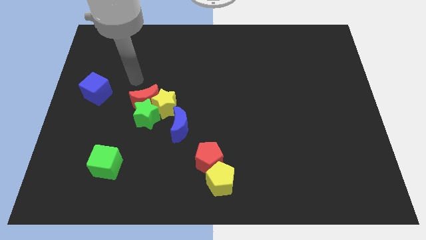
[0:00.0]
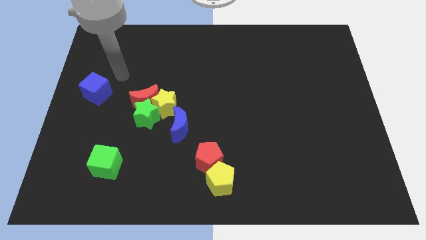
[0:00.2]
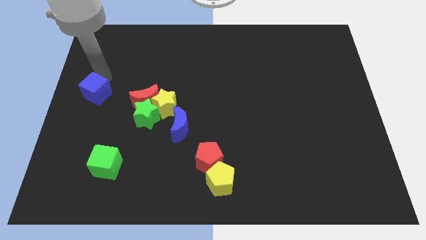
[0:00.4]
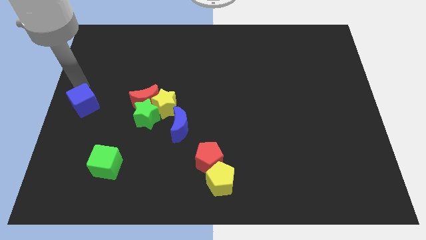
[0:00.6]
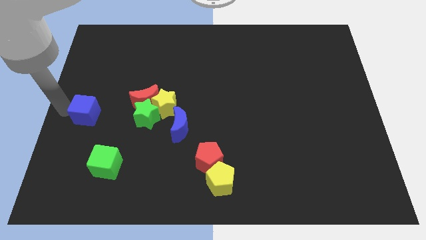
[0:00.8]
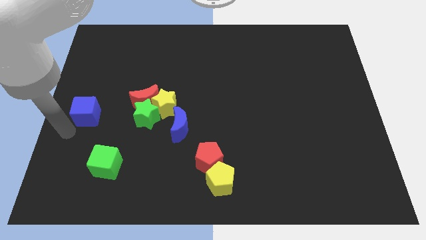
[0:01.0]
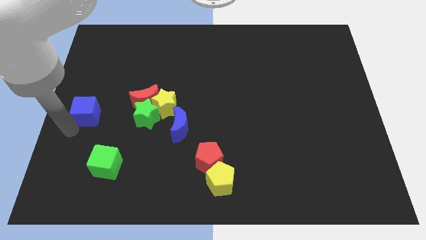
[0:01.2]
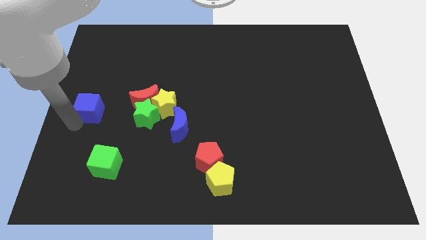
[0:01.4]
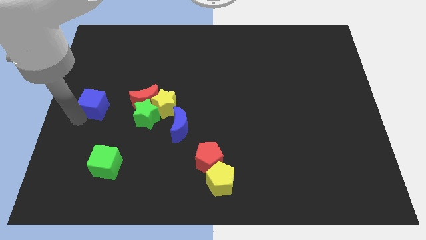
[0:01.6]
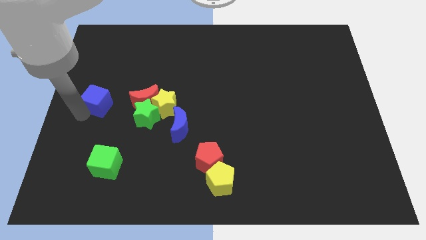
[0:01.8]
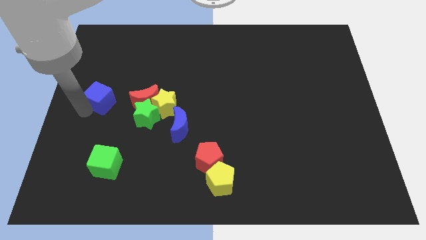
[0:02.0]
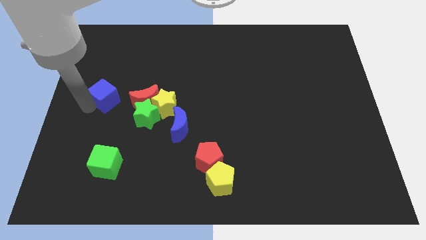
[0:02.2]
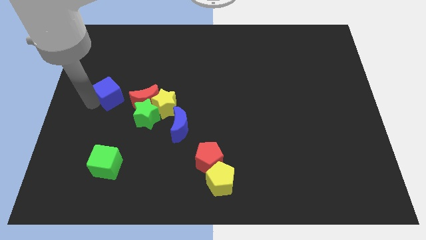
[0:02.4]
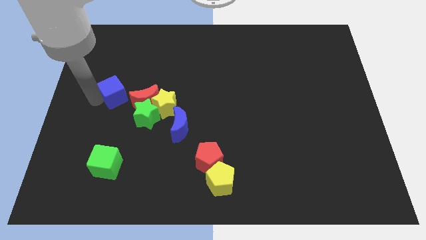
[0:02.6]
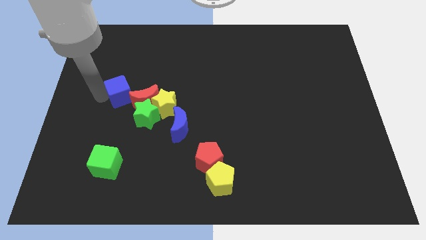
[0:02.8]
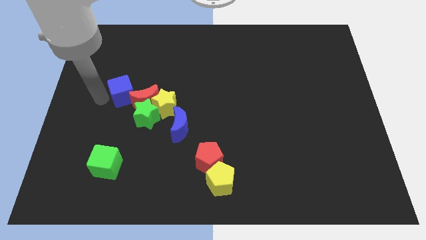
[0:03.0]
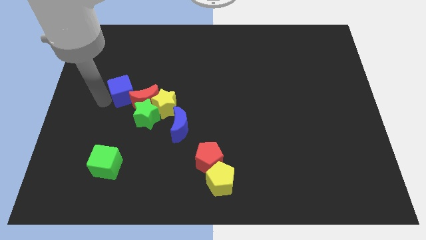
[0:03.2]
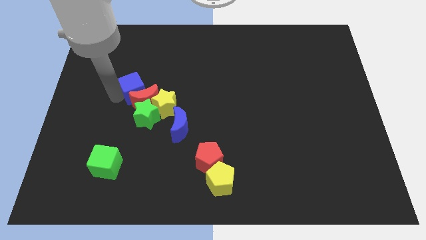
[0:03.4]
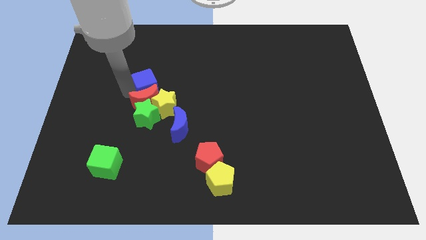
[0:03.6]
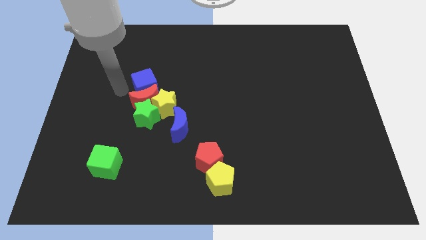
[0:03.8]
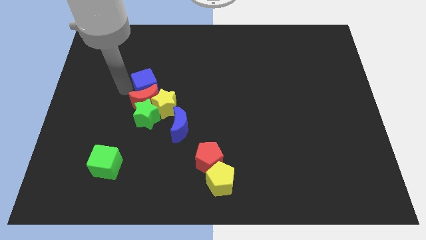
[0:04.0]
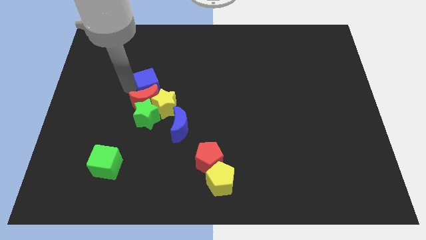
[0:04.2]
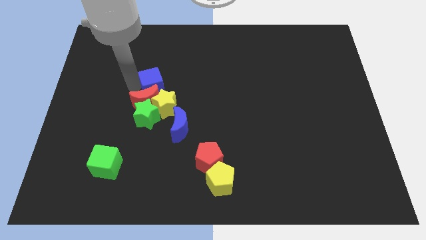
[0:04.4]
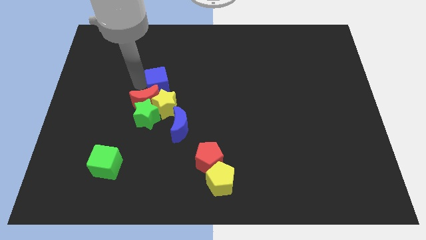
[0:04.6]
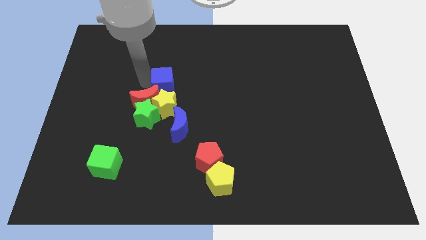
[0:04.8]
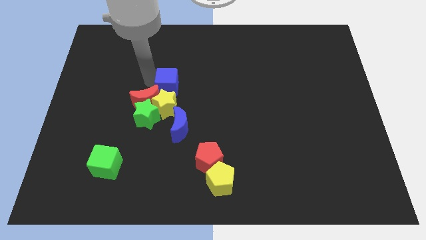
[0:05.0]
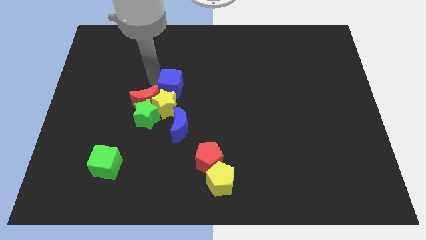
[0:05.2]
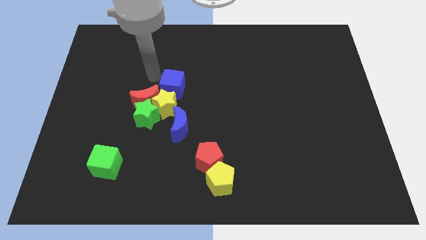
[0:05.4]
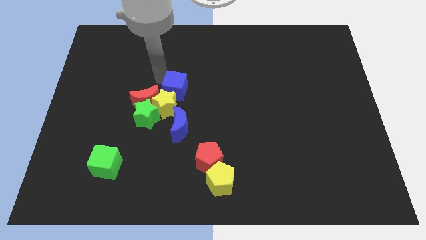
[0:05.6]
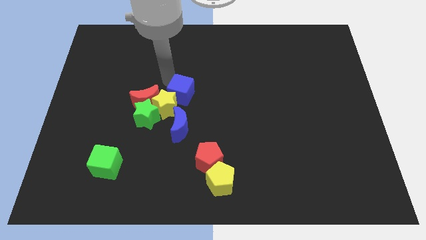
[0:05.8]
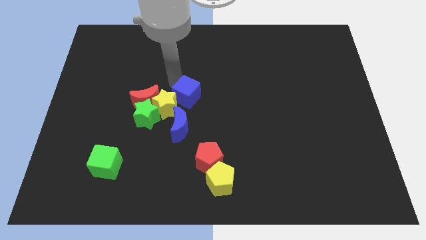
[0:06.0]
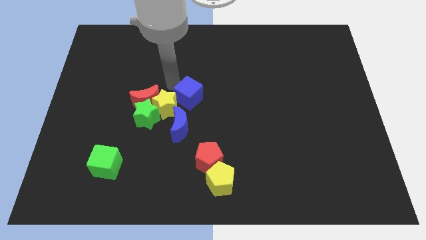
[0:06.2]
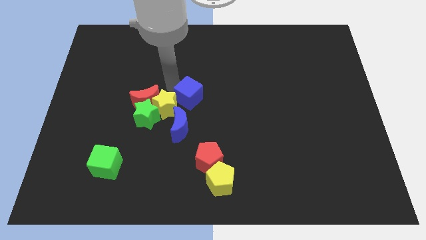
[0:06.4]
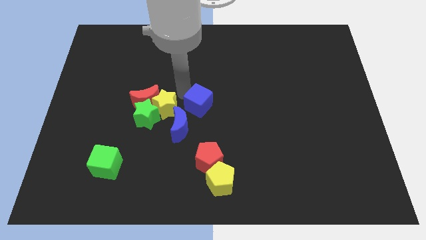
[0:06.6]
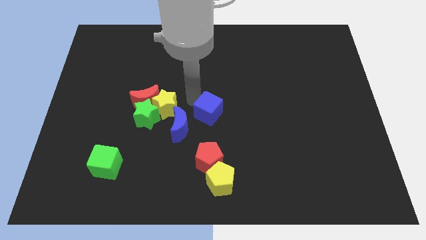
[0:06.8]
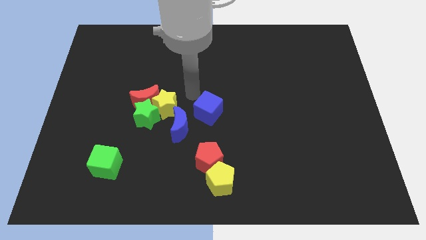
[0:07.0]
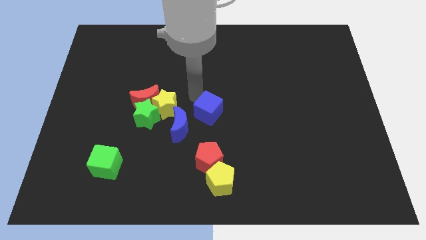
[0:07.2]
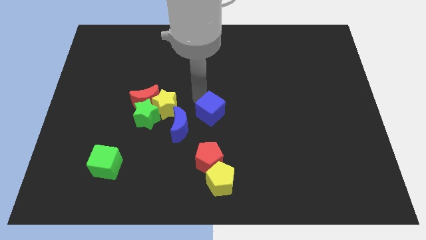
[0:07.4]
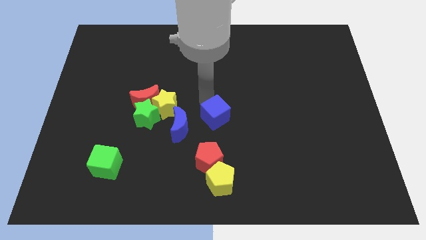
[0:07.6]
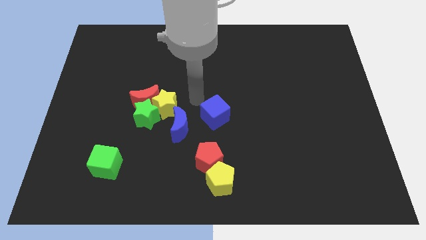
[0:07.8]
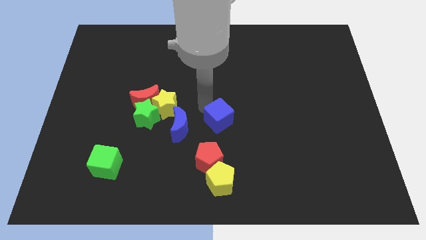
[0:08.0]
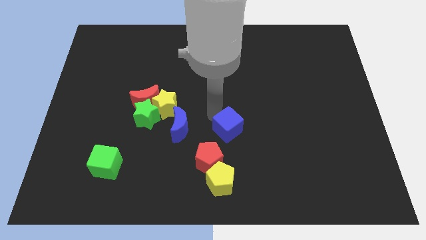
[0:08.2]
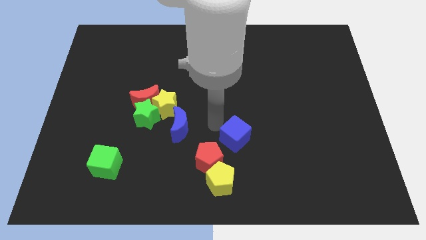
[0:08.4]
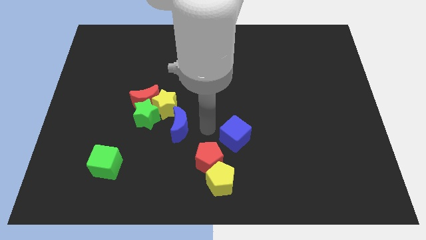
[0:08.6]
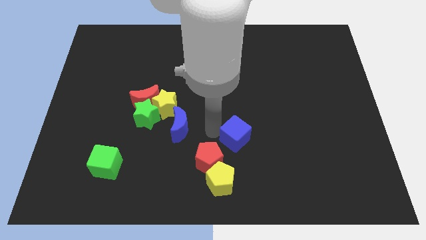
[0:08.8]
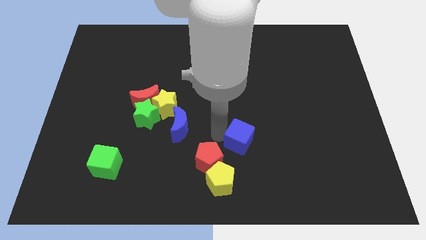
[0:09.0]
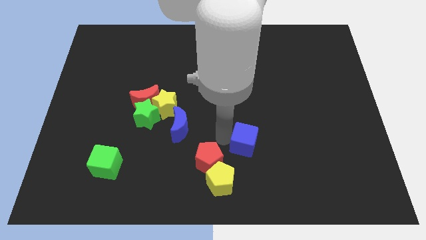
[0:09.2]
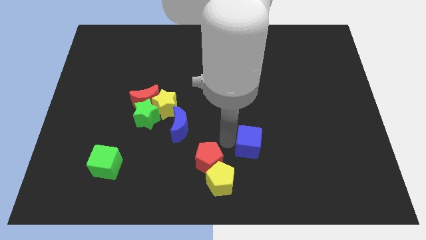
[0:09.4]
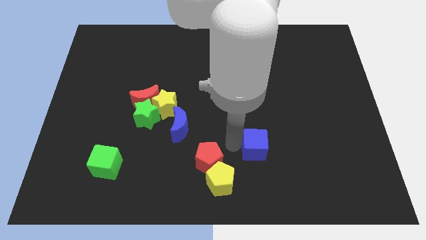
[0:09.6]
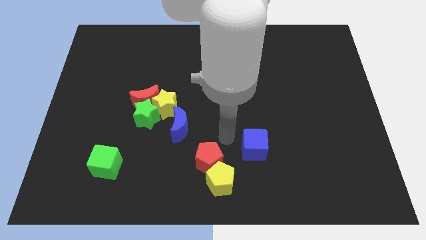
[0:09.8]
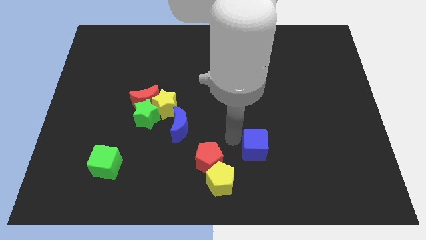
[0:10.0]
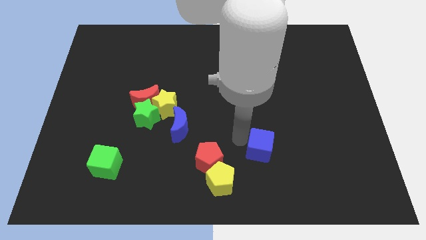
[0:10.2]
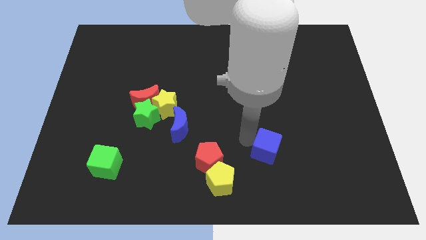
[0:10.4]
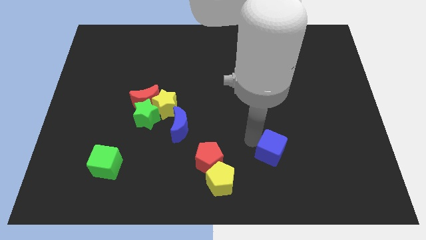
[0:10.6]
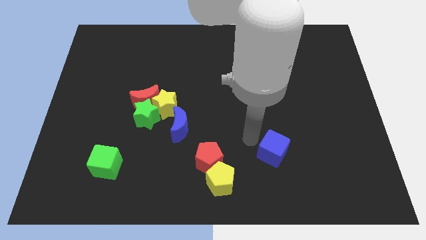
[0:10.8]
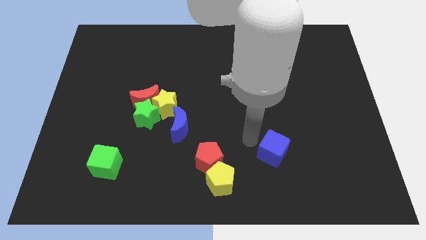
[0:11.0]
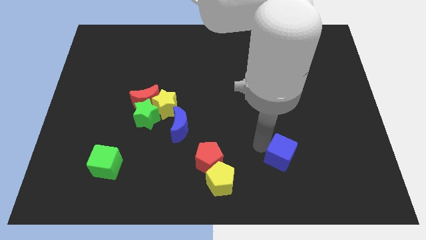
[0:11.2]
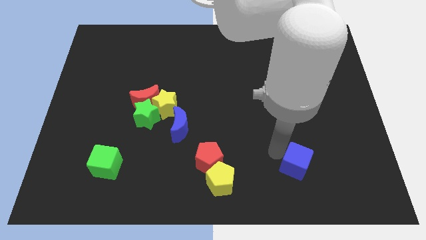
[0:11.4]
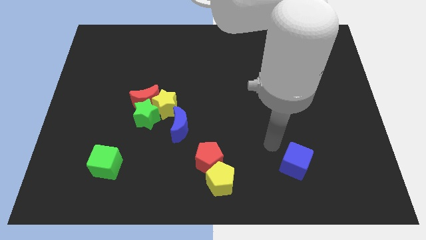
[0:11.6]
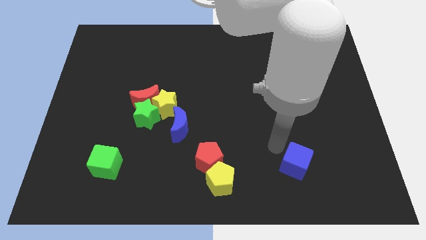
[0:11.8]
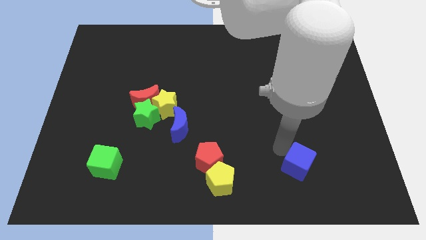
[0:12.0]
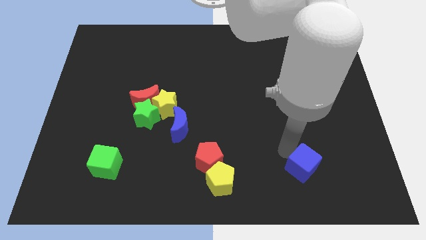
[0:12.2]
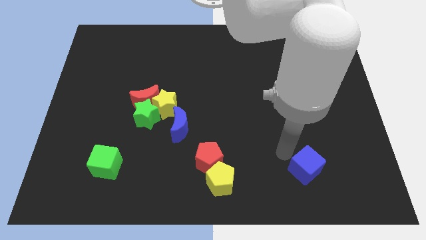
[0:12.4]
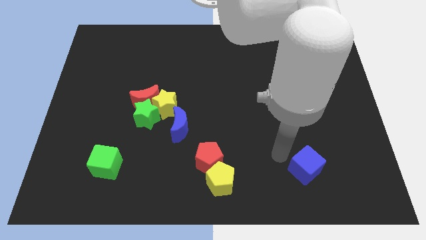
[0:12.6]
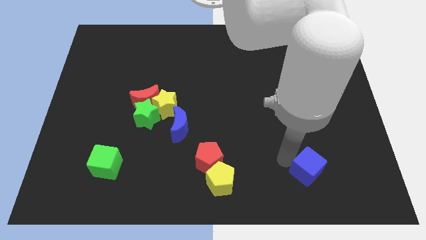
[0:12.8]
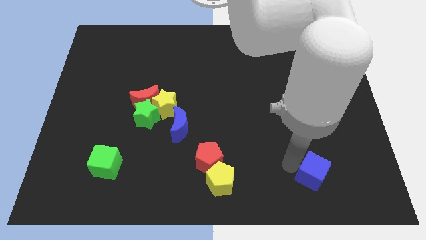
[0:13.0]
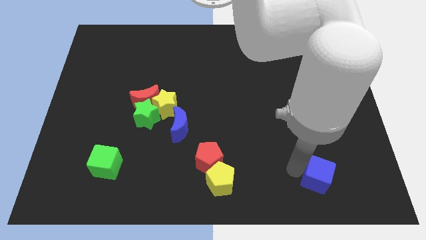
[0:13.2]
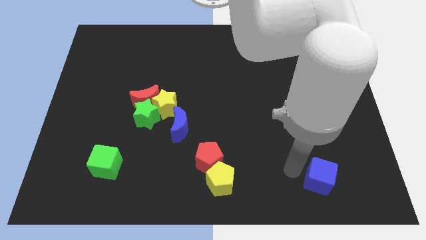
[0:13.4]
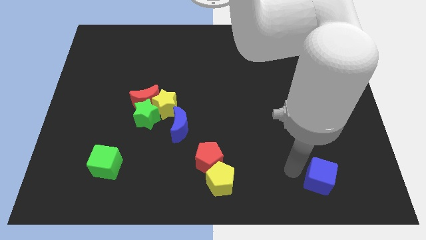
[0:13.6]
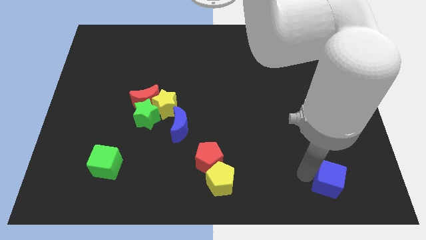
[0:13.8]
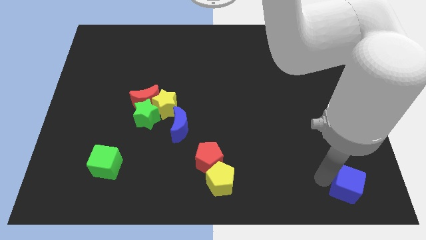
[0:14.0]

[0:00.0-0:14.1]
put the blue cube to the bottom right
